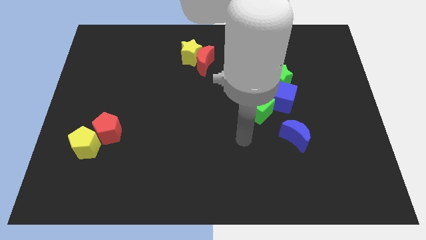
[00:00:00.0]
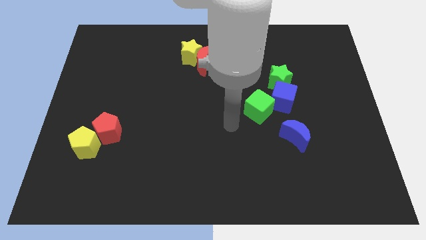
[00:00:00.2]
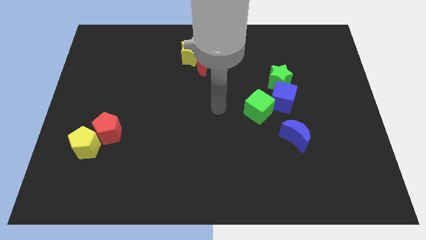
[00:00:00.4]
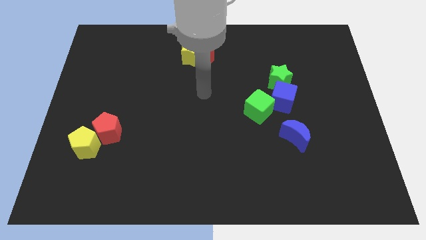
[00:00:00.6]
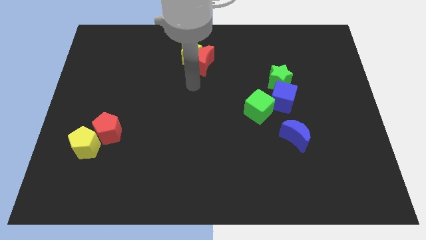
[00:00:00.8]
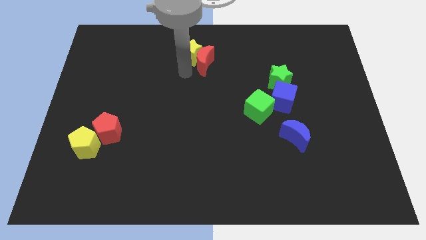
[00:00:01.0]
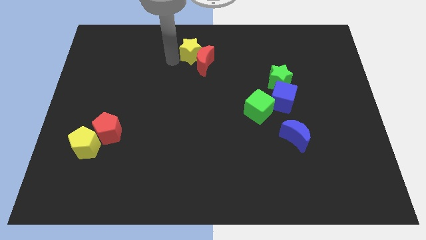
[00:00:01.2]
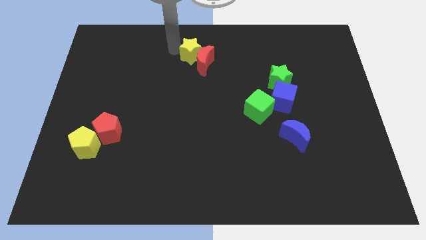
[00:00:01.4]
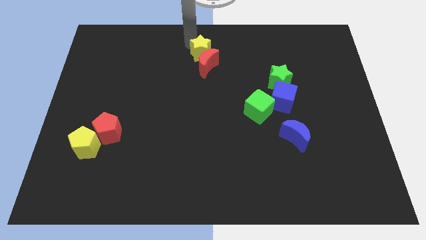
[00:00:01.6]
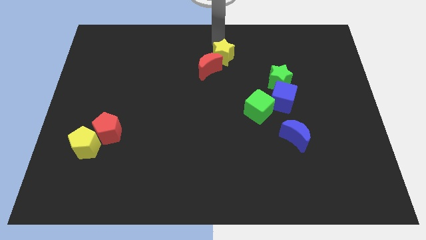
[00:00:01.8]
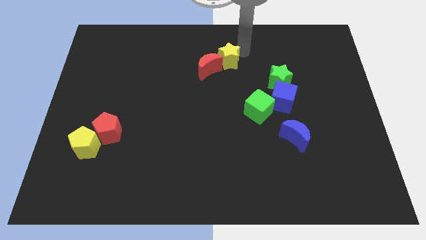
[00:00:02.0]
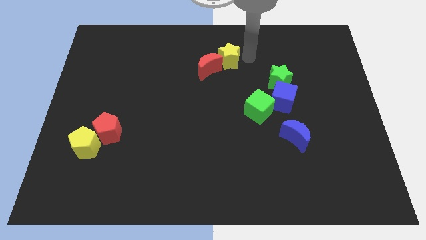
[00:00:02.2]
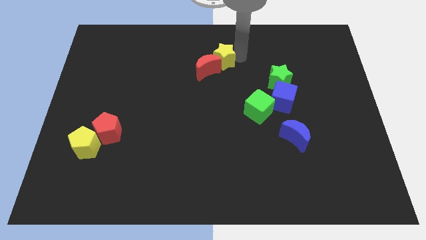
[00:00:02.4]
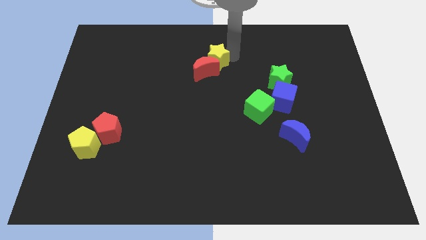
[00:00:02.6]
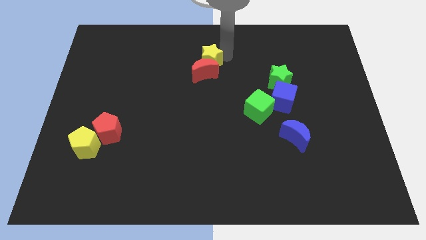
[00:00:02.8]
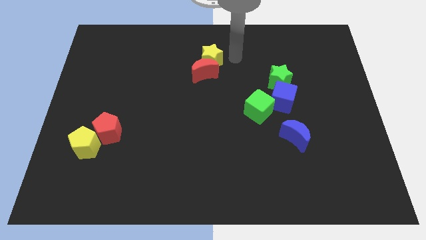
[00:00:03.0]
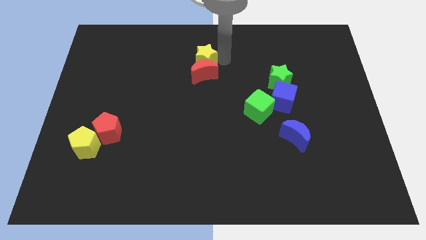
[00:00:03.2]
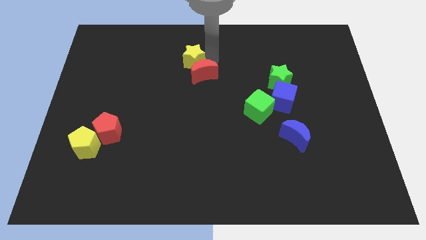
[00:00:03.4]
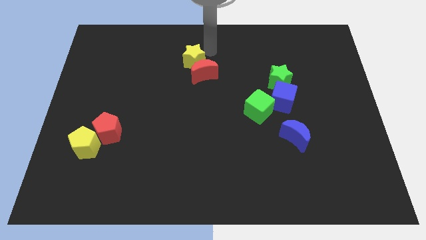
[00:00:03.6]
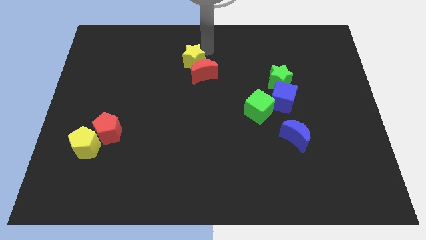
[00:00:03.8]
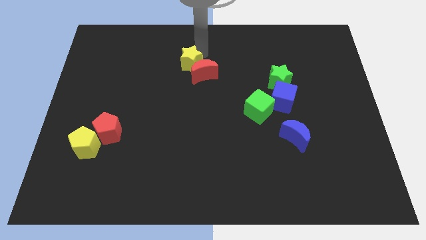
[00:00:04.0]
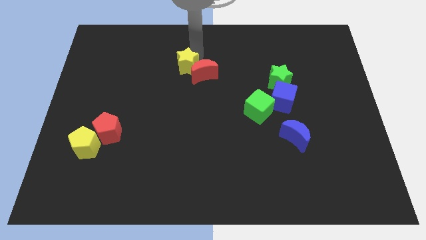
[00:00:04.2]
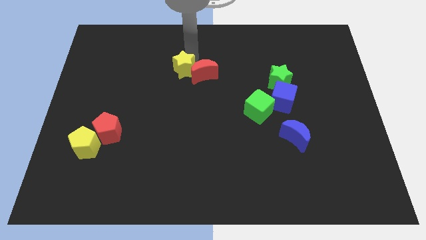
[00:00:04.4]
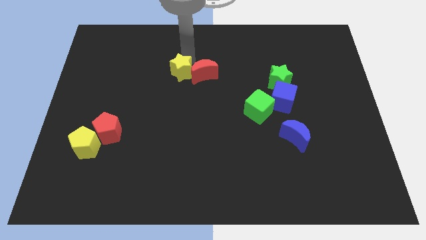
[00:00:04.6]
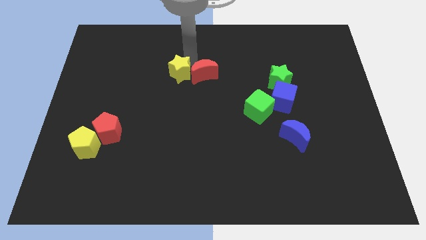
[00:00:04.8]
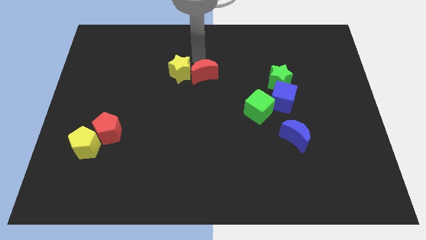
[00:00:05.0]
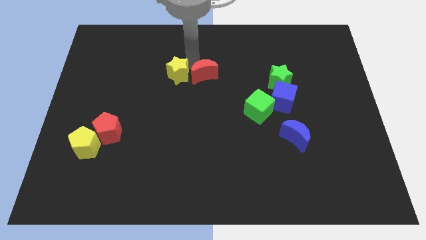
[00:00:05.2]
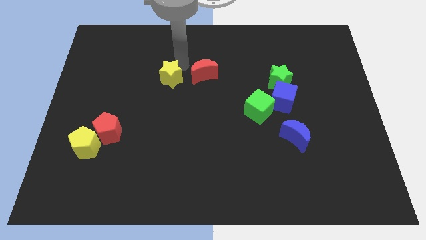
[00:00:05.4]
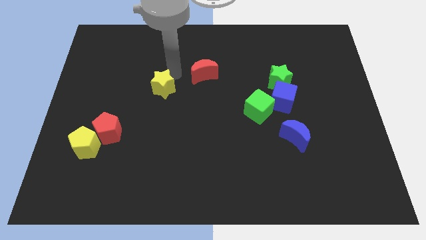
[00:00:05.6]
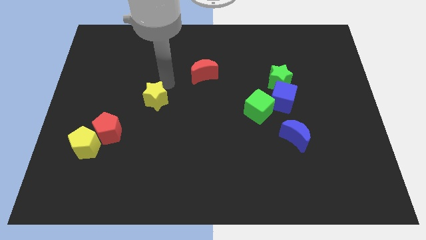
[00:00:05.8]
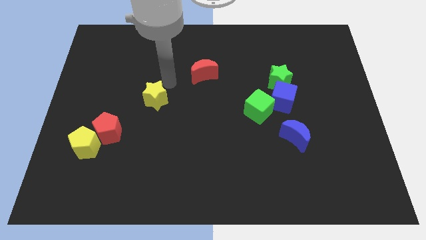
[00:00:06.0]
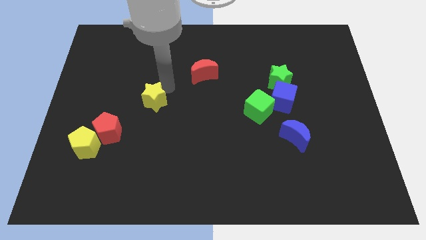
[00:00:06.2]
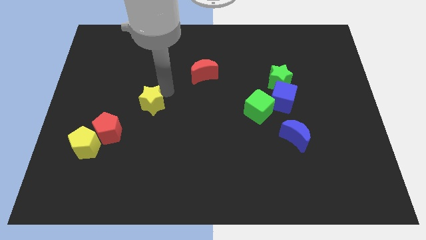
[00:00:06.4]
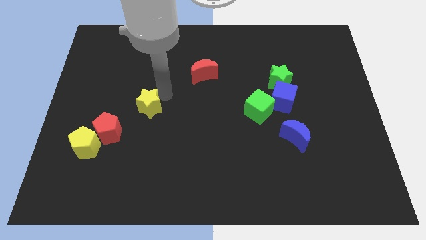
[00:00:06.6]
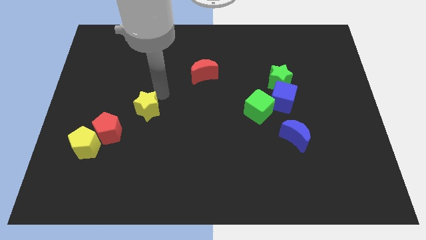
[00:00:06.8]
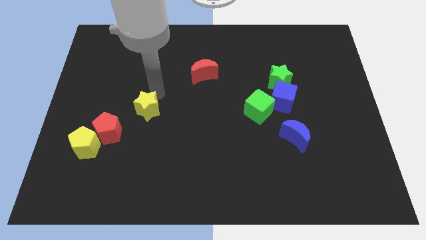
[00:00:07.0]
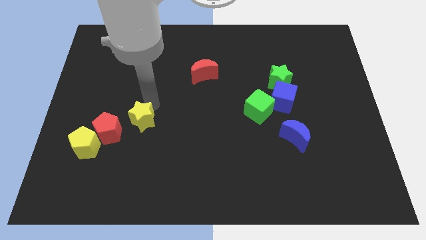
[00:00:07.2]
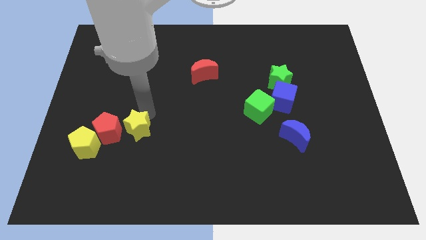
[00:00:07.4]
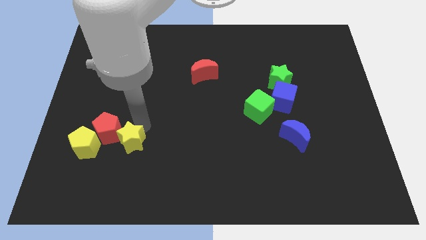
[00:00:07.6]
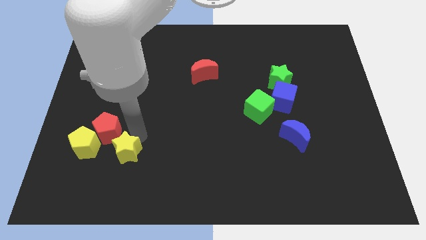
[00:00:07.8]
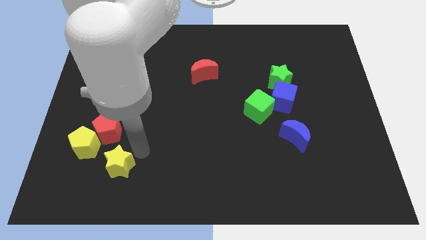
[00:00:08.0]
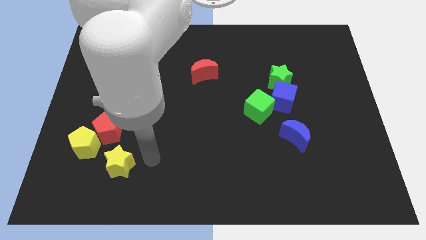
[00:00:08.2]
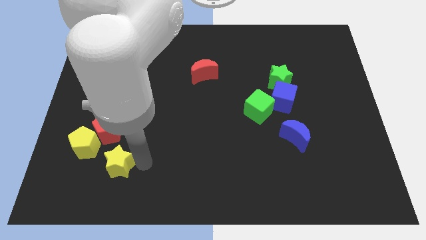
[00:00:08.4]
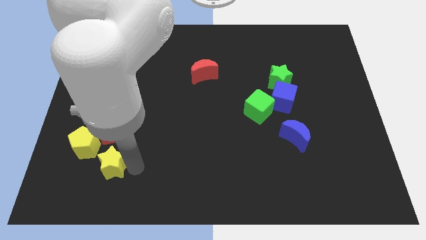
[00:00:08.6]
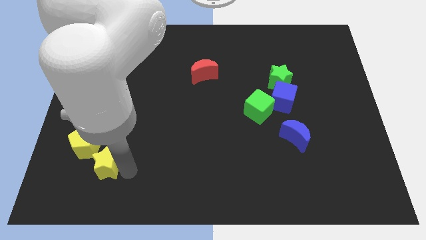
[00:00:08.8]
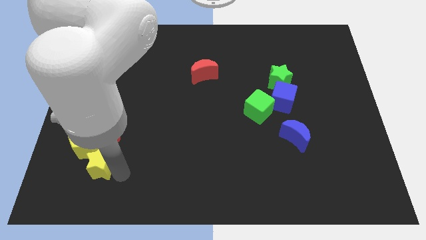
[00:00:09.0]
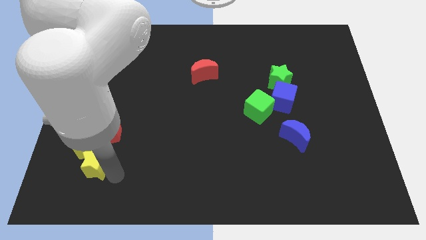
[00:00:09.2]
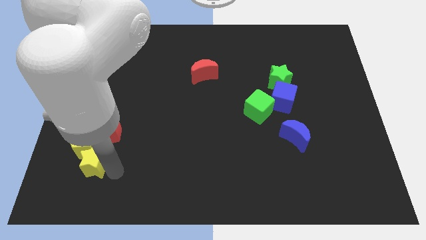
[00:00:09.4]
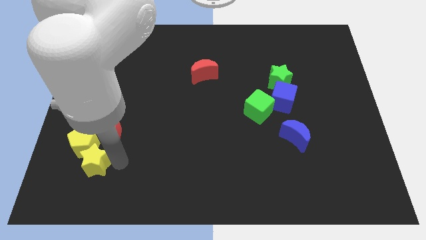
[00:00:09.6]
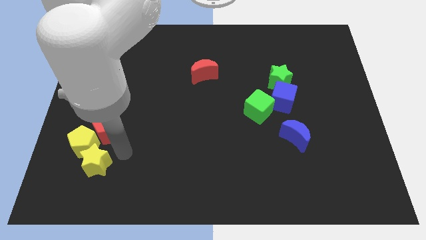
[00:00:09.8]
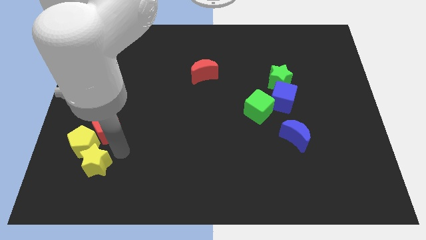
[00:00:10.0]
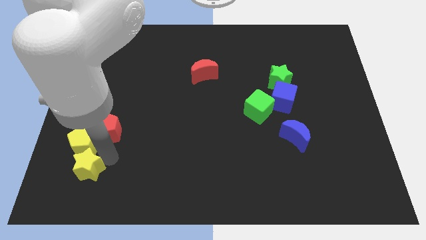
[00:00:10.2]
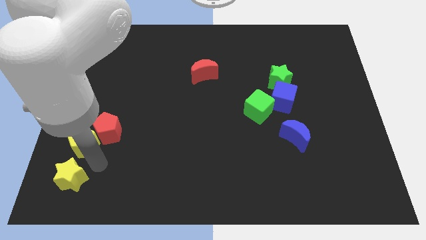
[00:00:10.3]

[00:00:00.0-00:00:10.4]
slide the yellow star to the bottom left

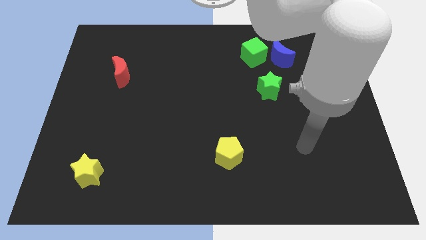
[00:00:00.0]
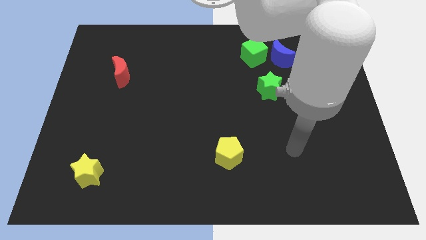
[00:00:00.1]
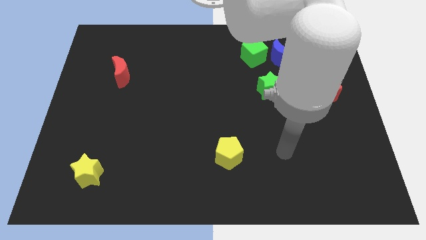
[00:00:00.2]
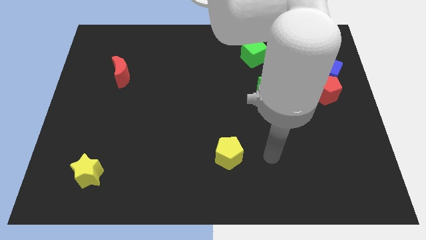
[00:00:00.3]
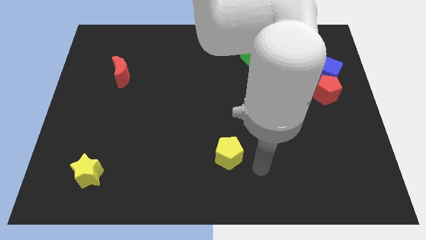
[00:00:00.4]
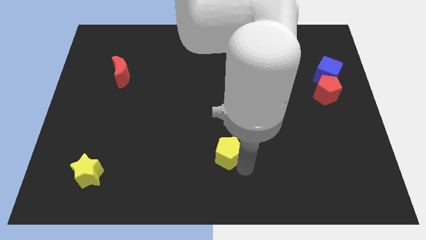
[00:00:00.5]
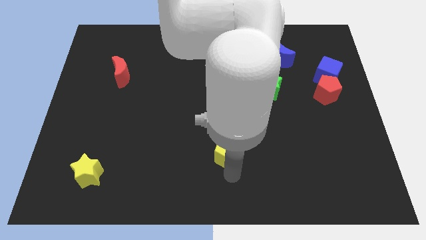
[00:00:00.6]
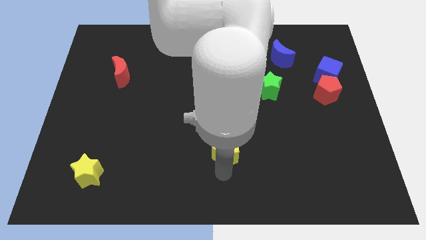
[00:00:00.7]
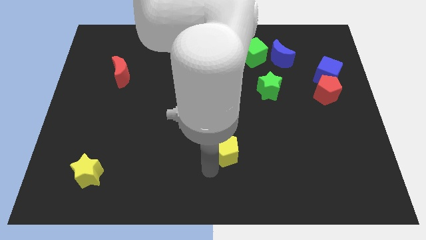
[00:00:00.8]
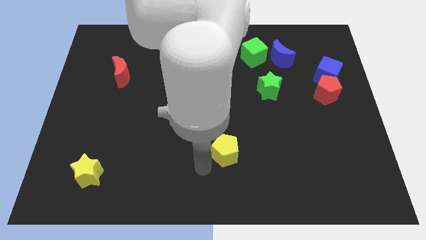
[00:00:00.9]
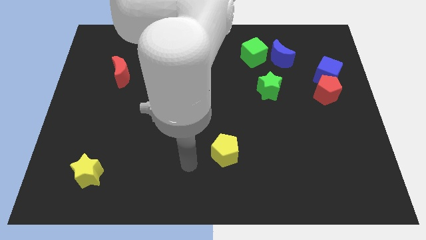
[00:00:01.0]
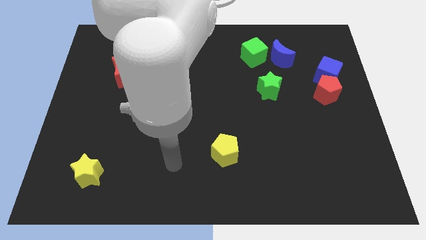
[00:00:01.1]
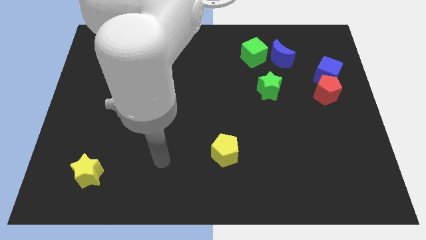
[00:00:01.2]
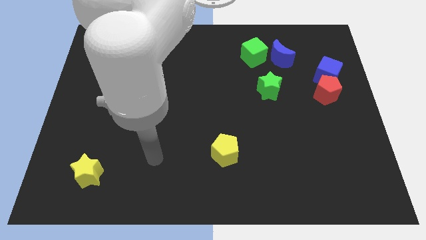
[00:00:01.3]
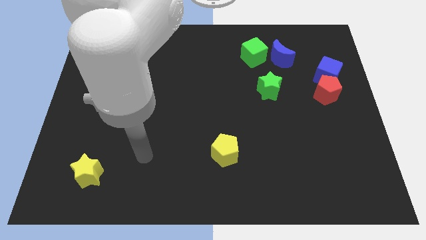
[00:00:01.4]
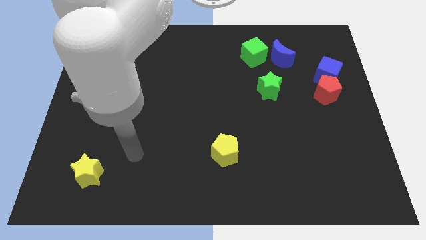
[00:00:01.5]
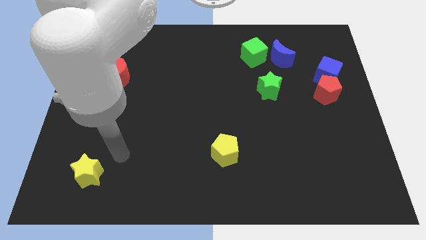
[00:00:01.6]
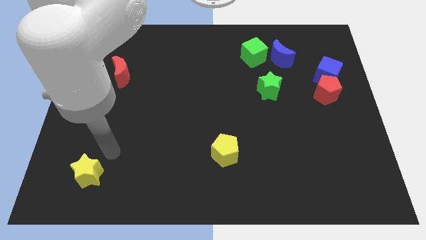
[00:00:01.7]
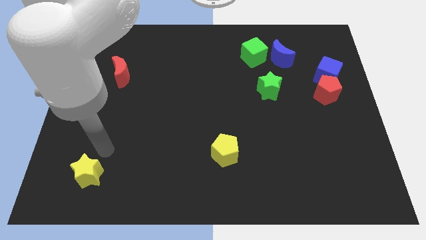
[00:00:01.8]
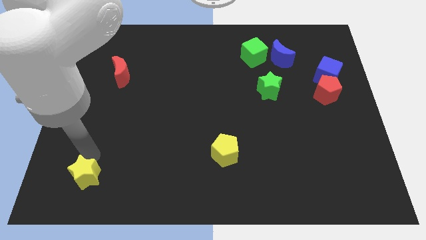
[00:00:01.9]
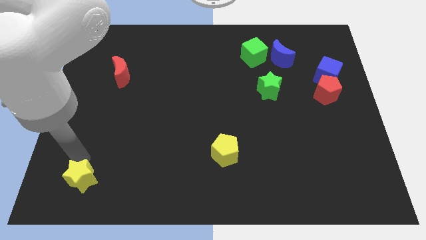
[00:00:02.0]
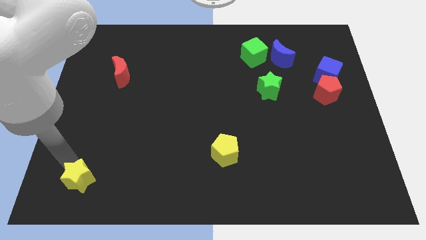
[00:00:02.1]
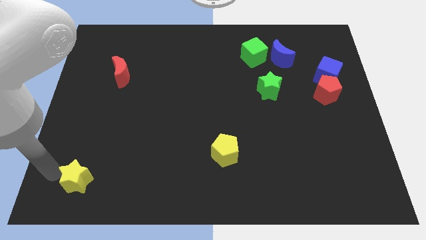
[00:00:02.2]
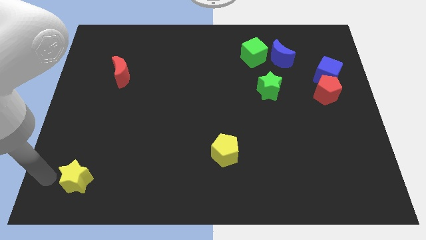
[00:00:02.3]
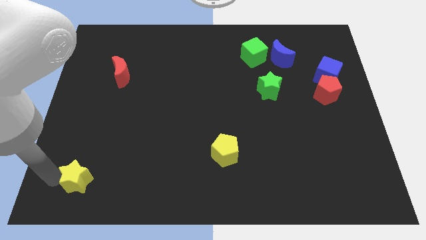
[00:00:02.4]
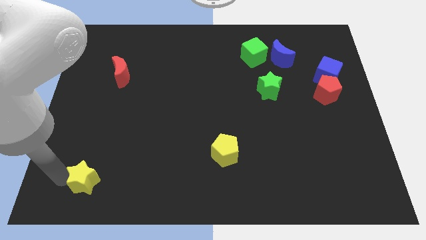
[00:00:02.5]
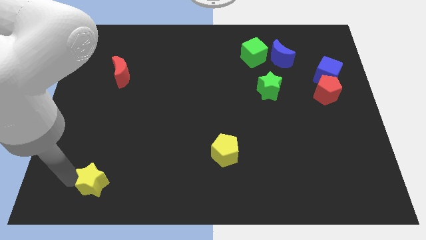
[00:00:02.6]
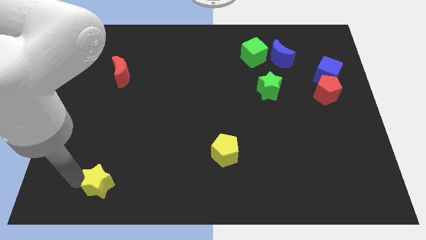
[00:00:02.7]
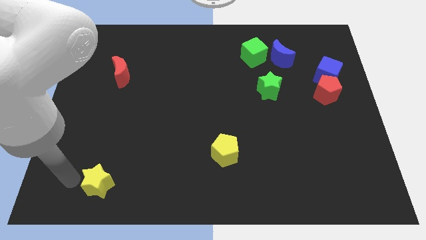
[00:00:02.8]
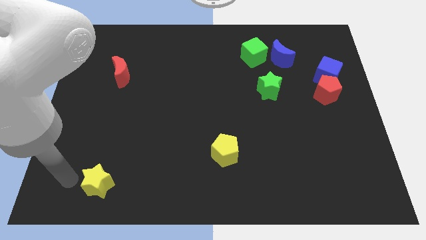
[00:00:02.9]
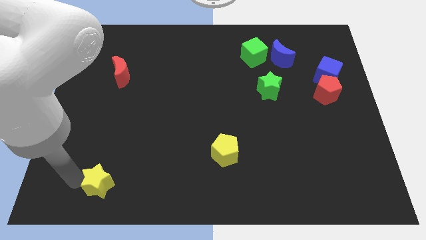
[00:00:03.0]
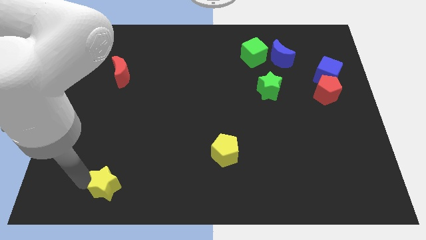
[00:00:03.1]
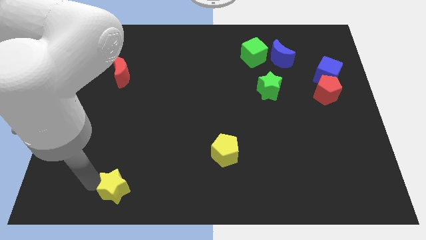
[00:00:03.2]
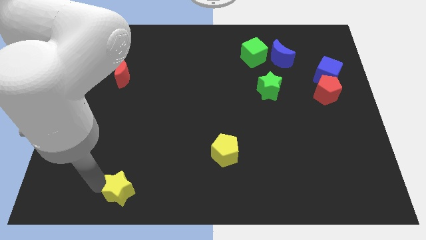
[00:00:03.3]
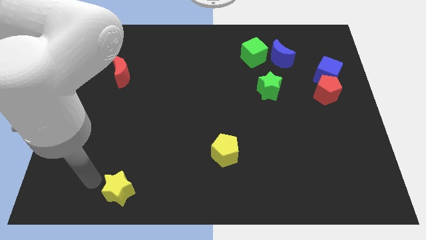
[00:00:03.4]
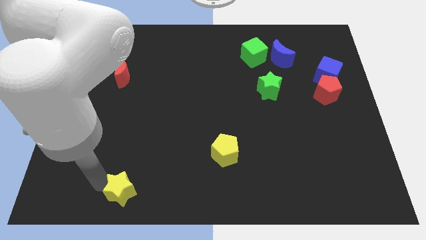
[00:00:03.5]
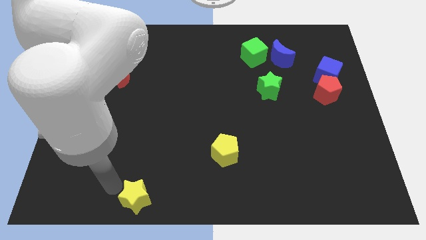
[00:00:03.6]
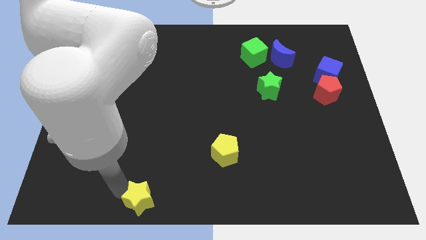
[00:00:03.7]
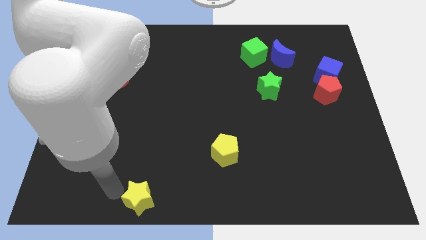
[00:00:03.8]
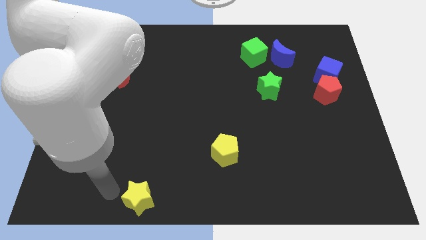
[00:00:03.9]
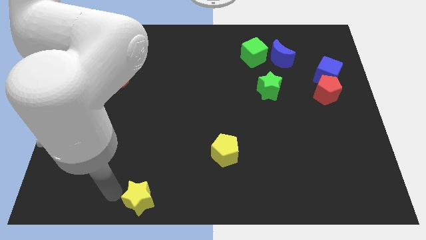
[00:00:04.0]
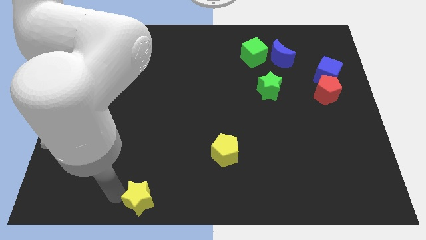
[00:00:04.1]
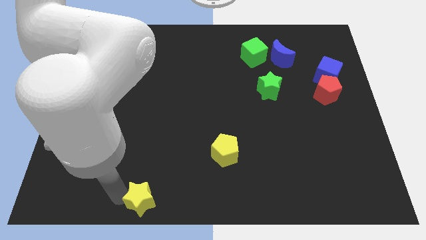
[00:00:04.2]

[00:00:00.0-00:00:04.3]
put the yellow star to the bottom side
